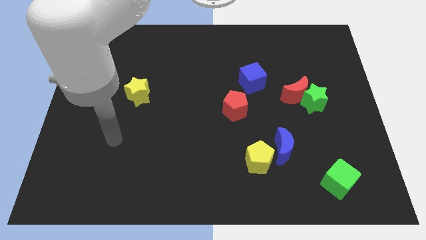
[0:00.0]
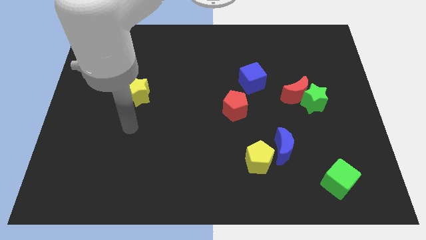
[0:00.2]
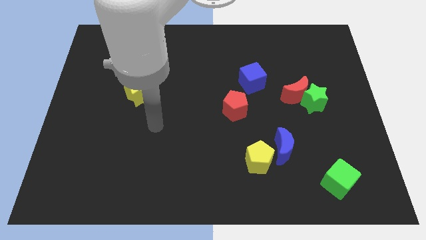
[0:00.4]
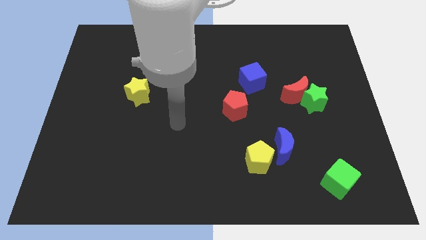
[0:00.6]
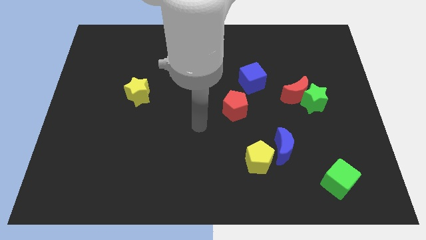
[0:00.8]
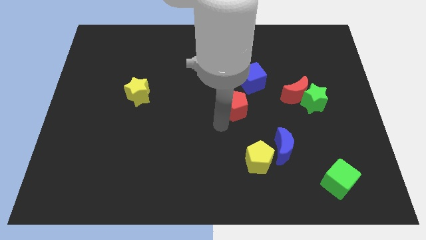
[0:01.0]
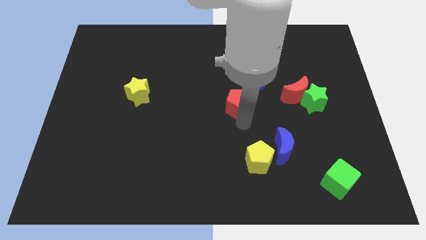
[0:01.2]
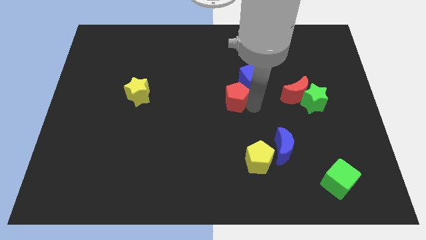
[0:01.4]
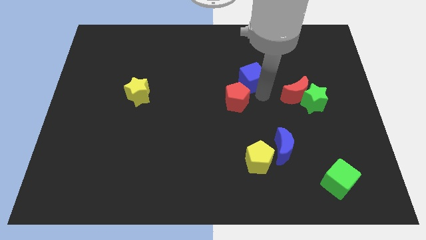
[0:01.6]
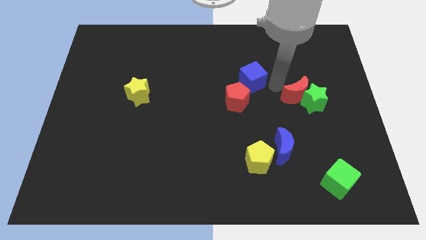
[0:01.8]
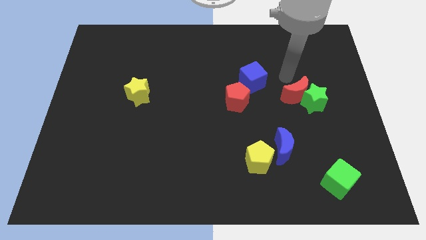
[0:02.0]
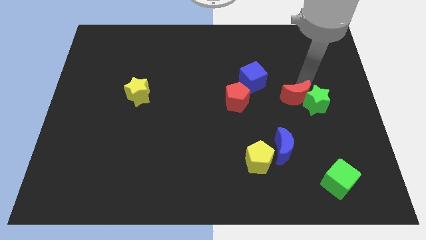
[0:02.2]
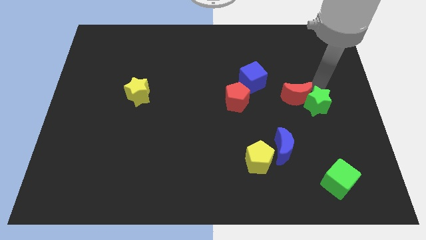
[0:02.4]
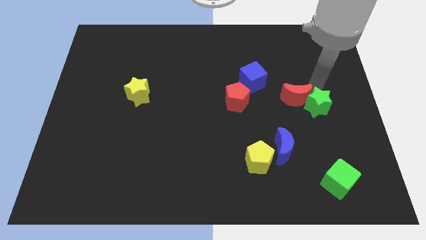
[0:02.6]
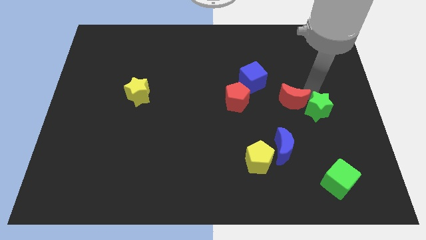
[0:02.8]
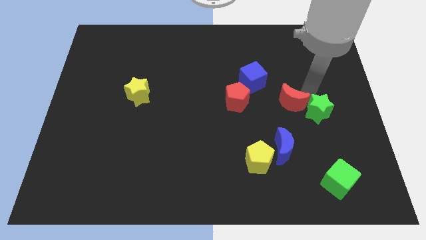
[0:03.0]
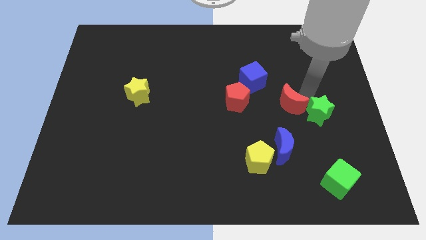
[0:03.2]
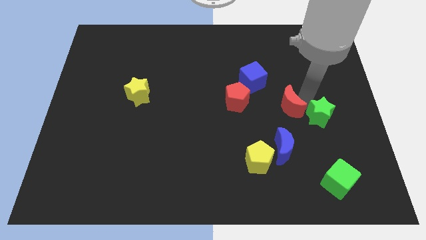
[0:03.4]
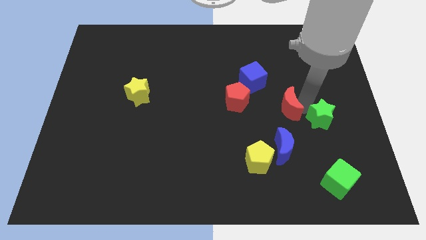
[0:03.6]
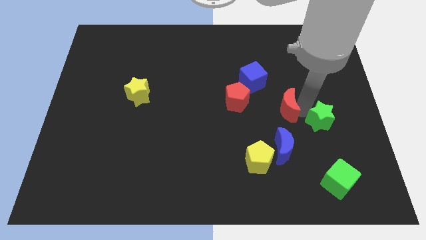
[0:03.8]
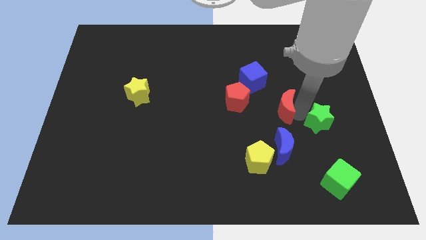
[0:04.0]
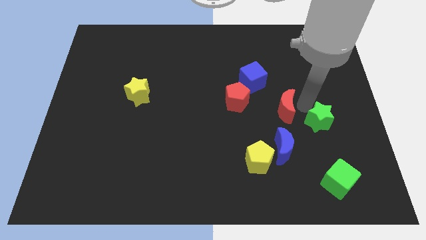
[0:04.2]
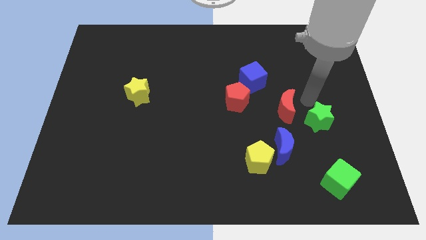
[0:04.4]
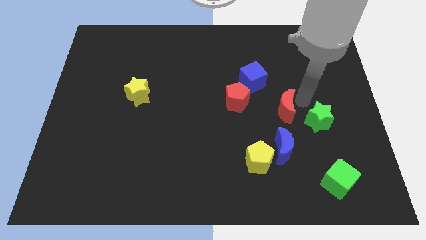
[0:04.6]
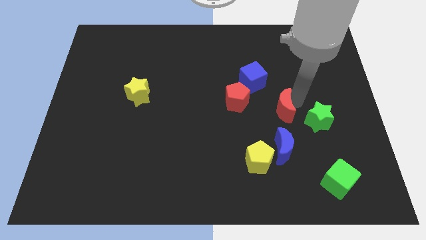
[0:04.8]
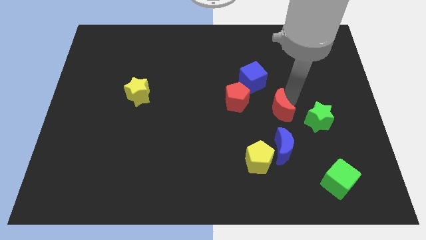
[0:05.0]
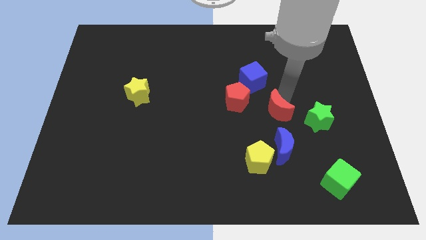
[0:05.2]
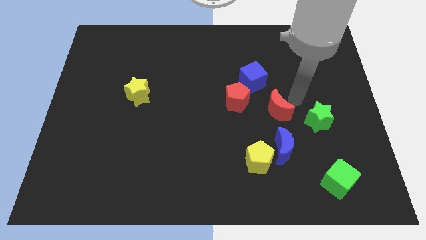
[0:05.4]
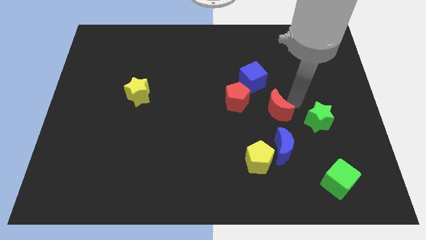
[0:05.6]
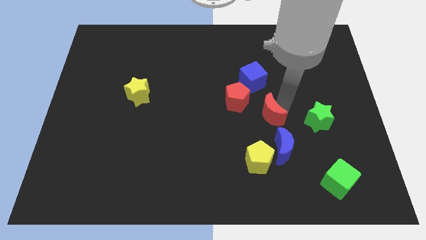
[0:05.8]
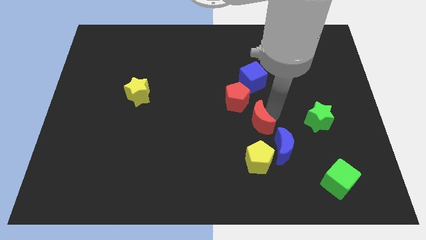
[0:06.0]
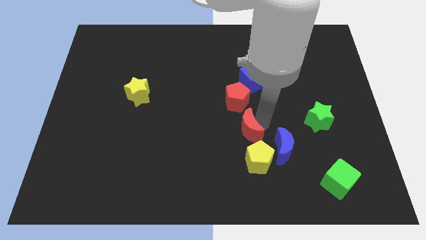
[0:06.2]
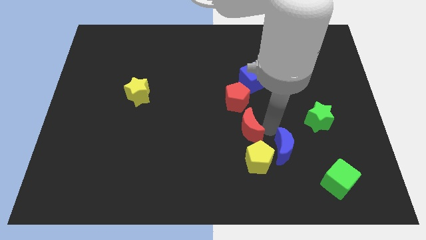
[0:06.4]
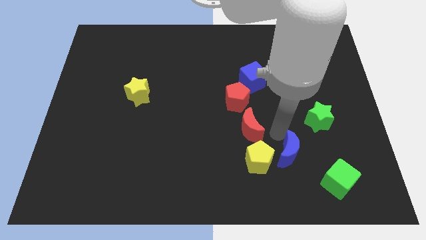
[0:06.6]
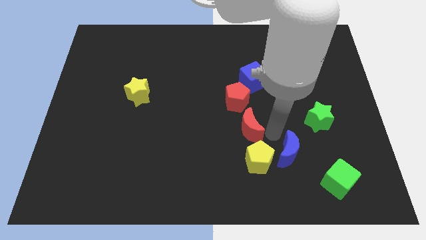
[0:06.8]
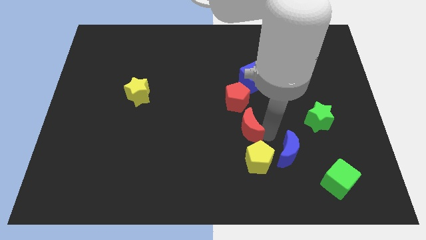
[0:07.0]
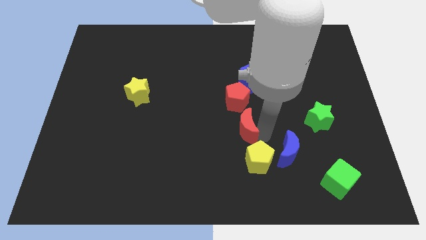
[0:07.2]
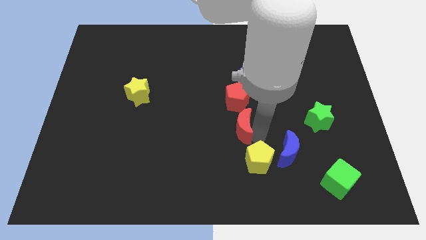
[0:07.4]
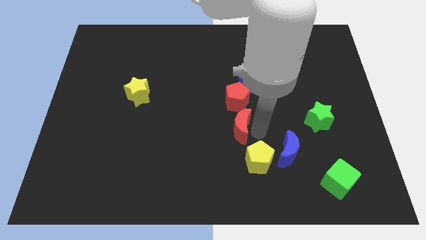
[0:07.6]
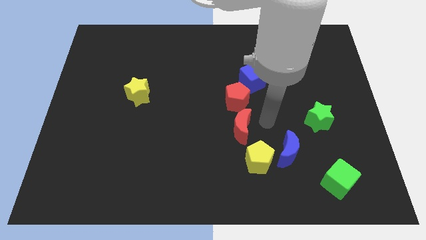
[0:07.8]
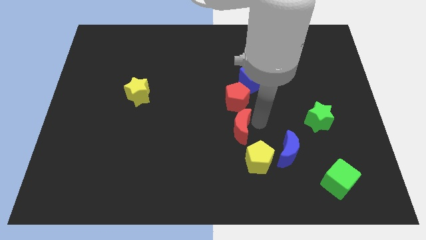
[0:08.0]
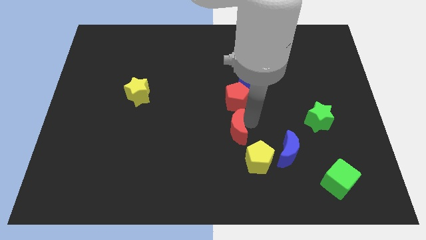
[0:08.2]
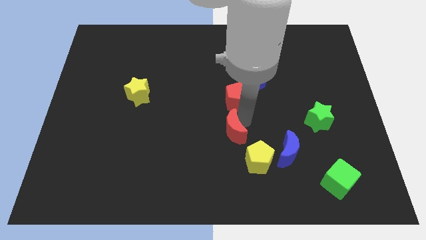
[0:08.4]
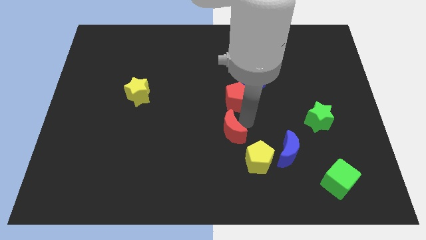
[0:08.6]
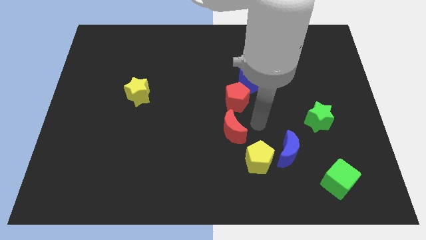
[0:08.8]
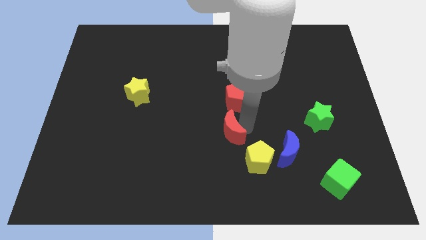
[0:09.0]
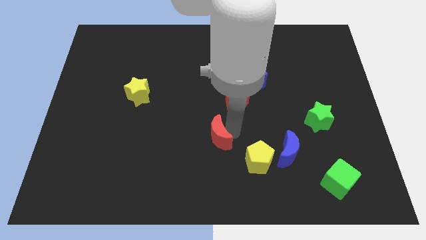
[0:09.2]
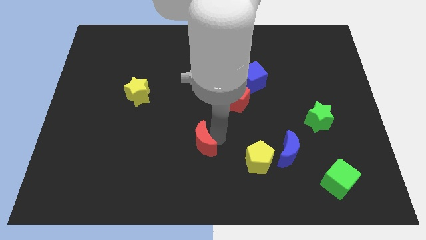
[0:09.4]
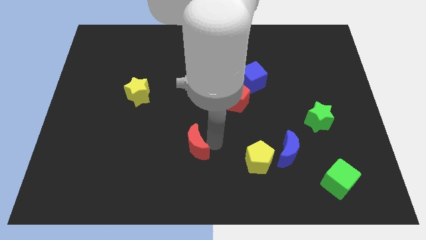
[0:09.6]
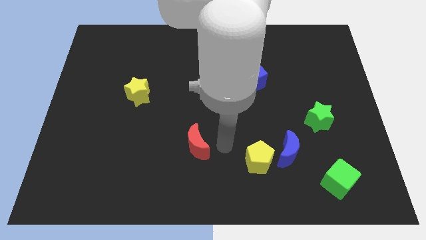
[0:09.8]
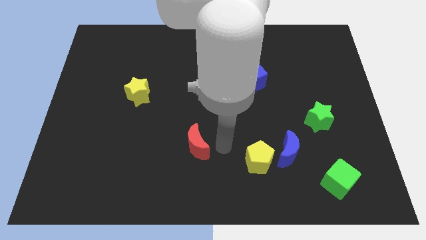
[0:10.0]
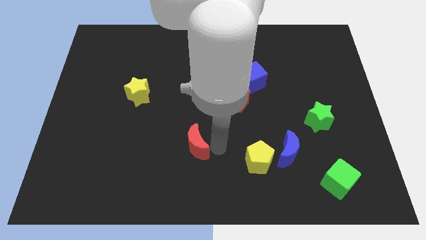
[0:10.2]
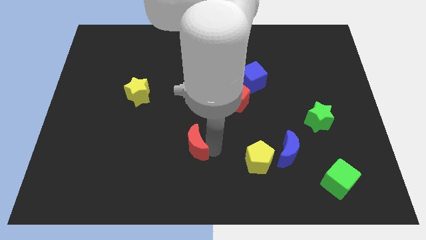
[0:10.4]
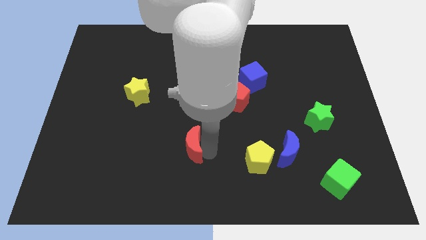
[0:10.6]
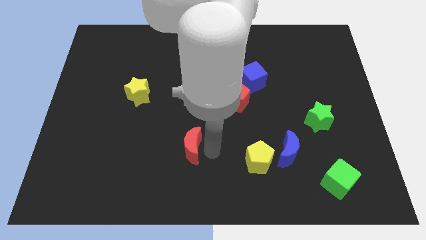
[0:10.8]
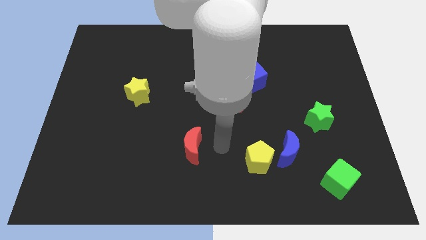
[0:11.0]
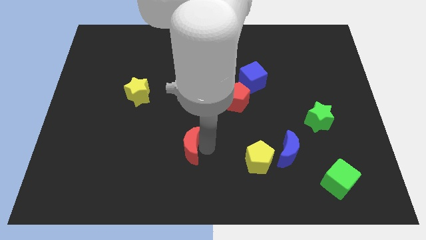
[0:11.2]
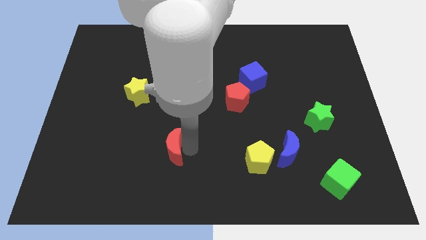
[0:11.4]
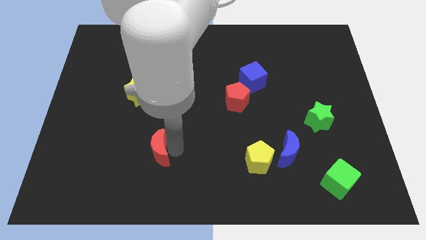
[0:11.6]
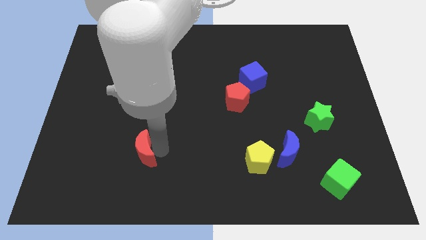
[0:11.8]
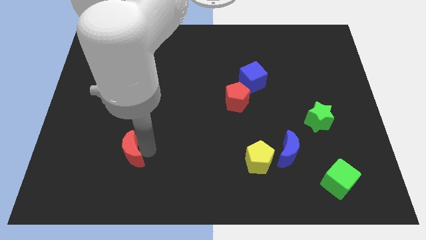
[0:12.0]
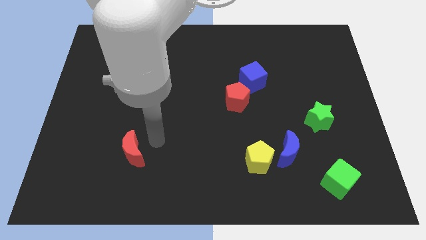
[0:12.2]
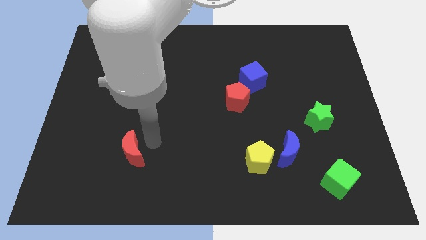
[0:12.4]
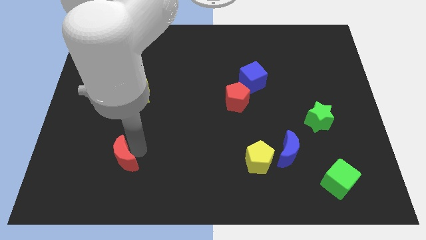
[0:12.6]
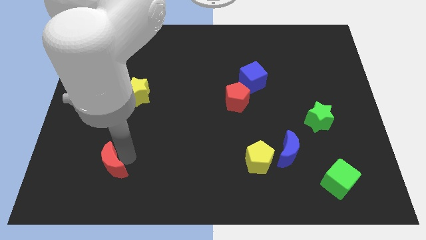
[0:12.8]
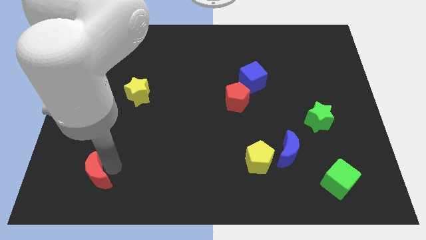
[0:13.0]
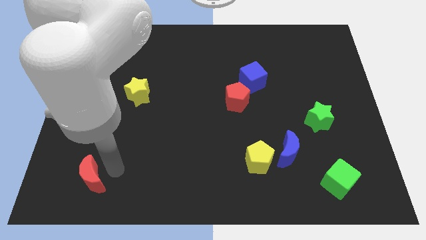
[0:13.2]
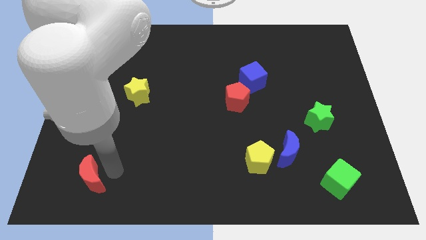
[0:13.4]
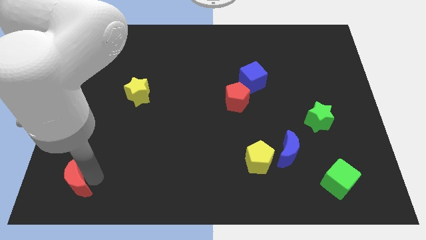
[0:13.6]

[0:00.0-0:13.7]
slide the red moon to the bottom left of the board
